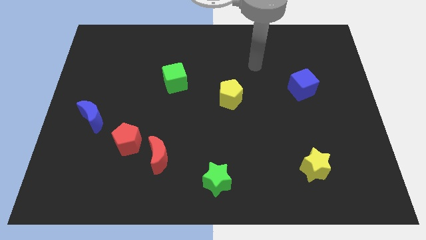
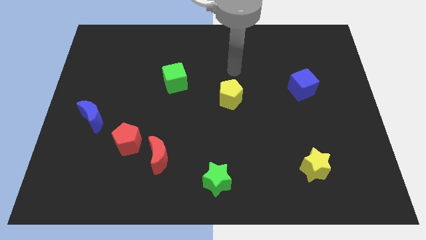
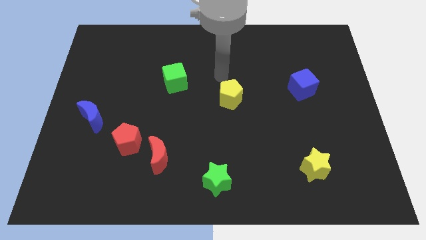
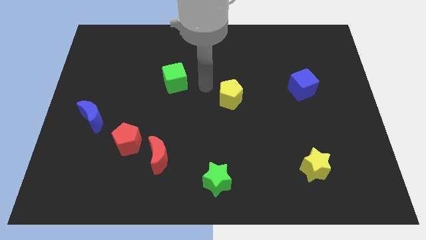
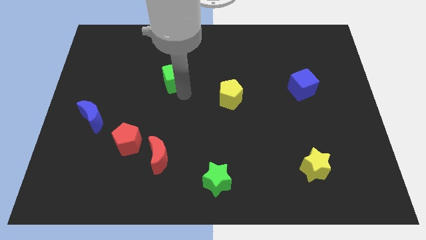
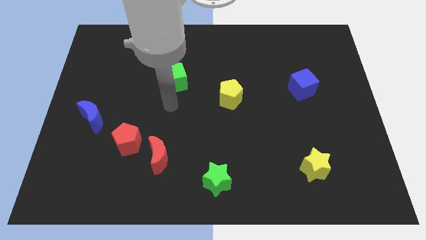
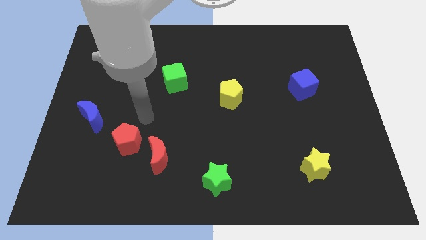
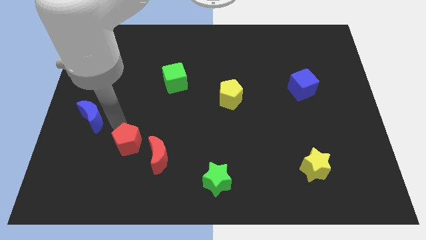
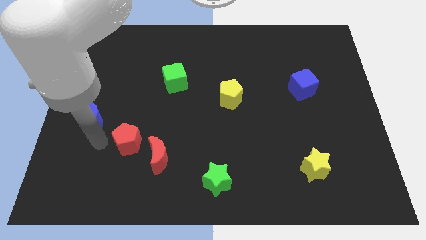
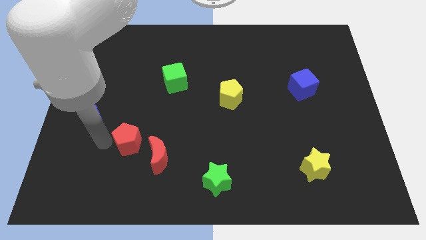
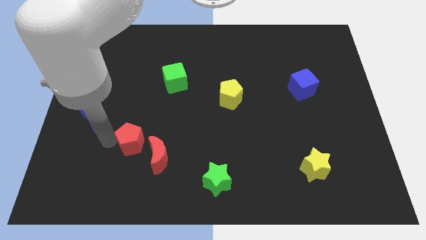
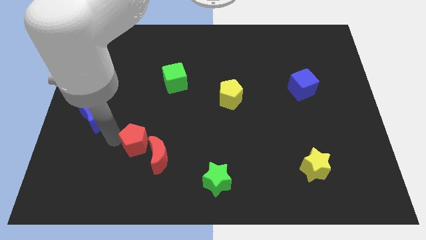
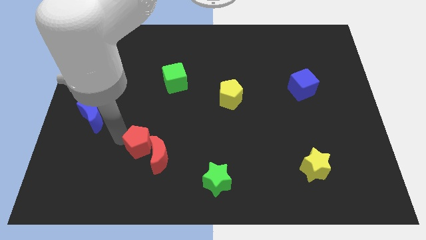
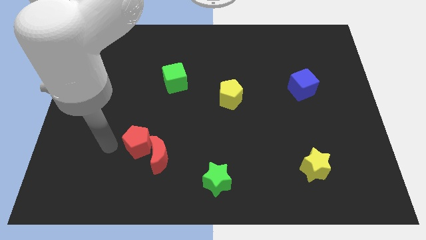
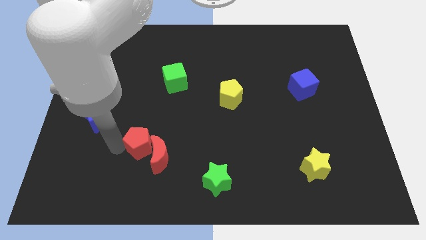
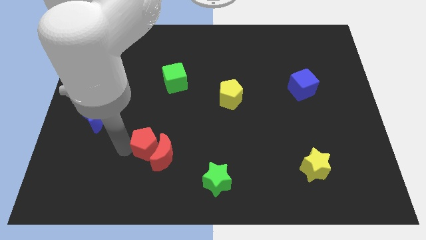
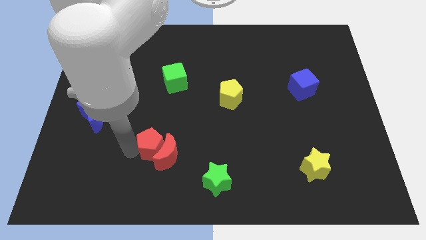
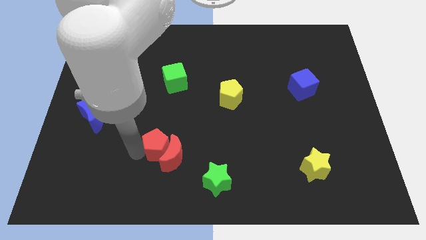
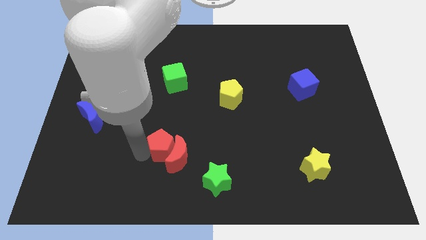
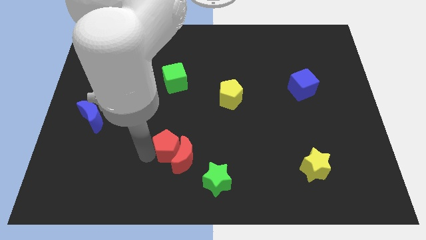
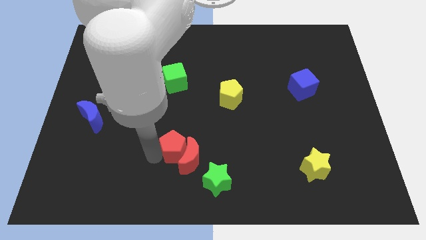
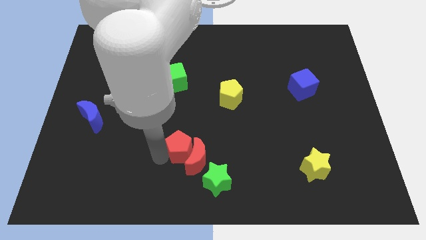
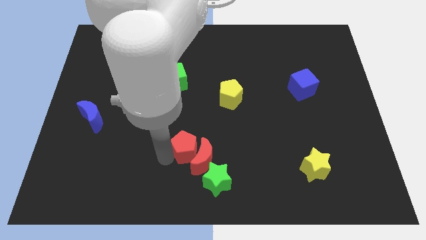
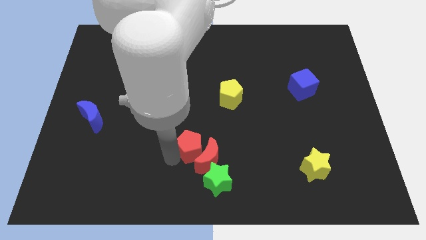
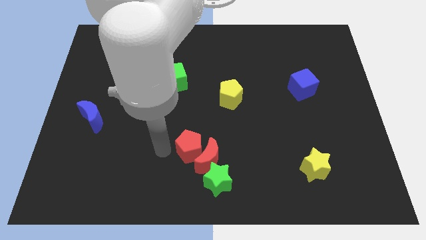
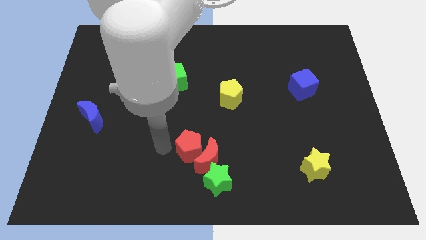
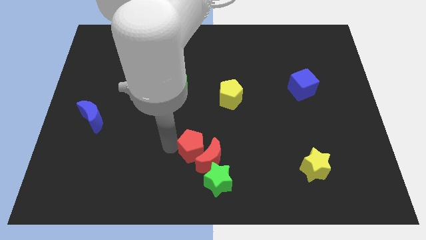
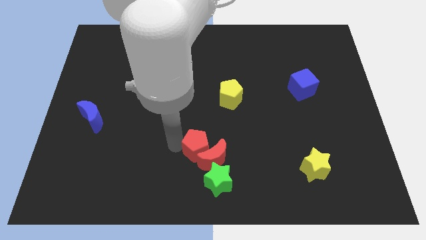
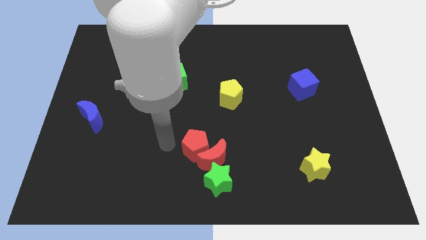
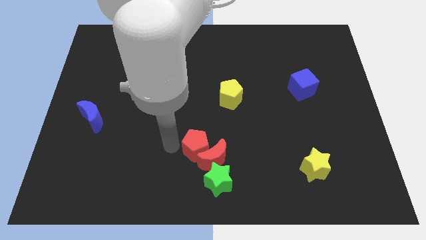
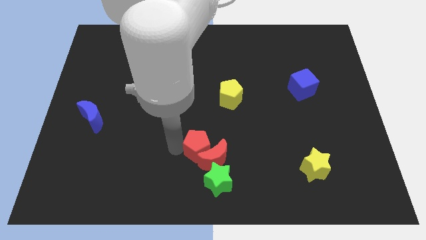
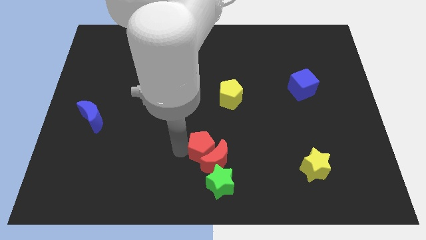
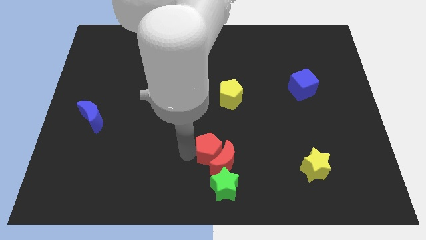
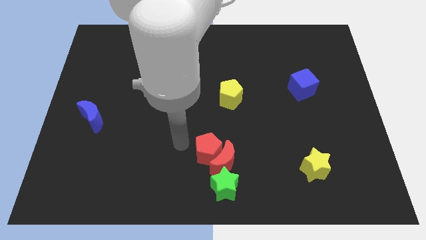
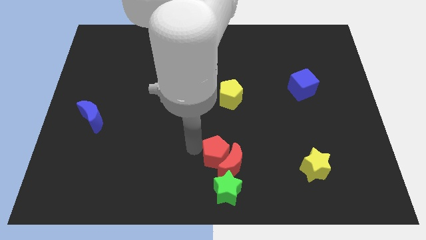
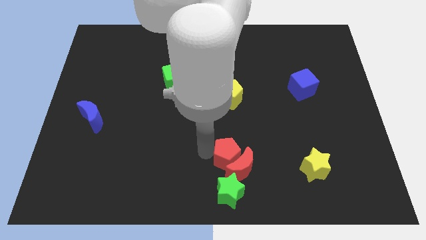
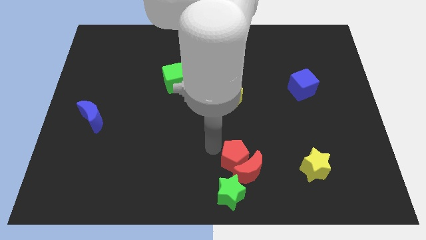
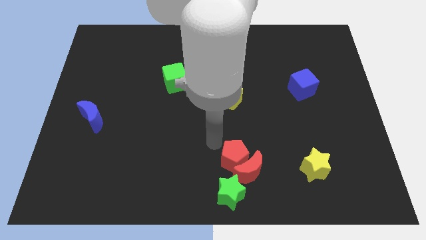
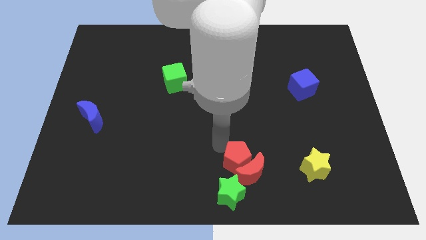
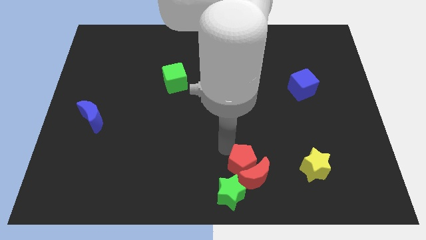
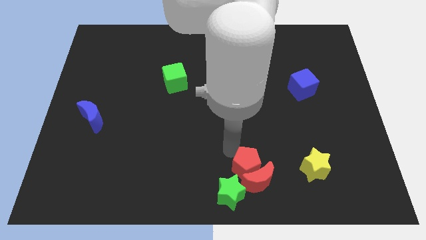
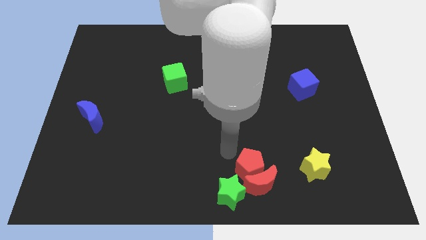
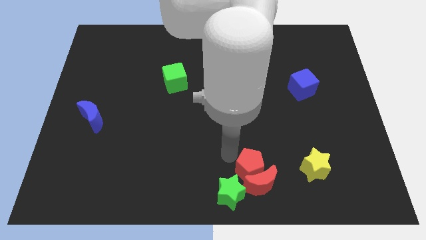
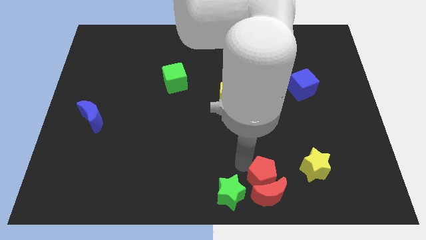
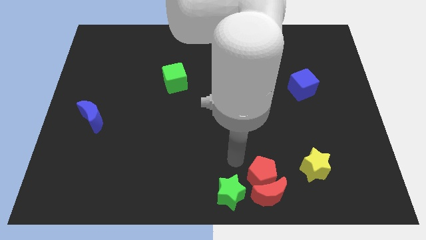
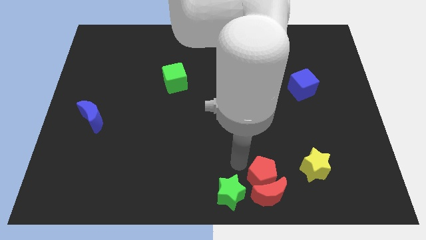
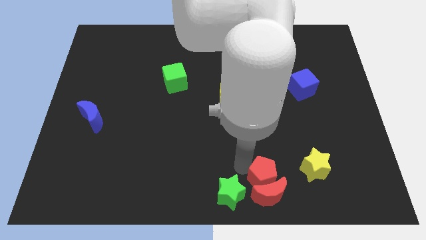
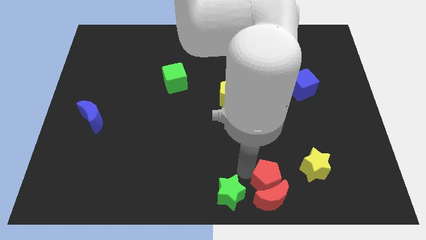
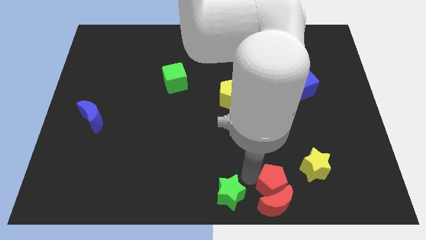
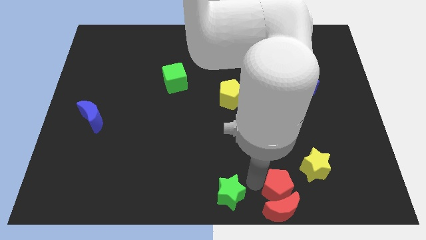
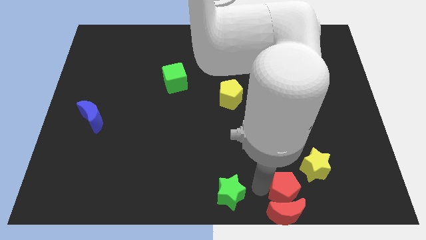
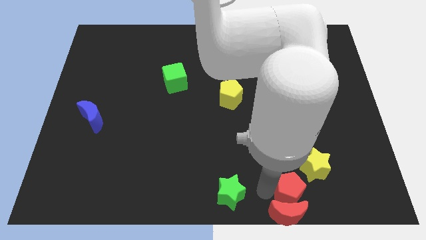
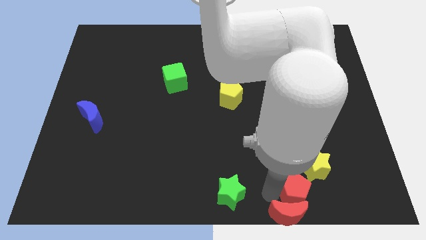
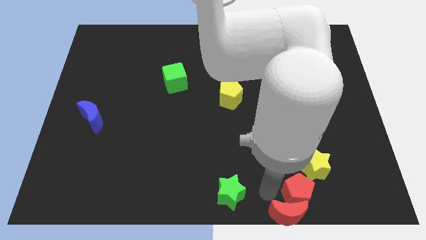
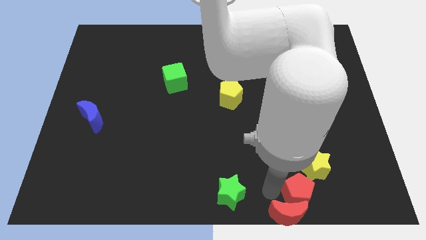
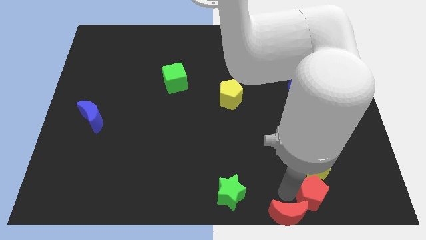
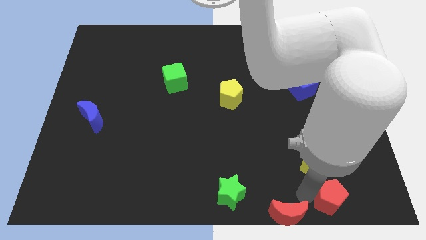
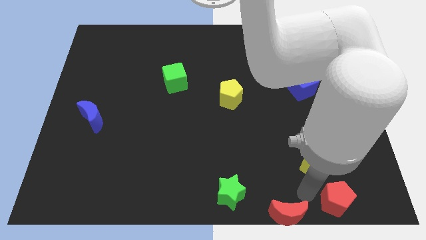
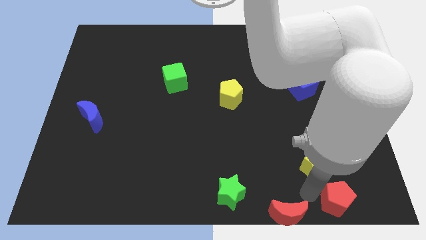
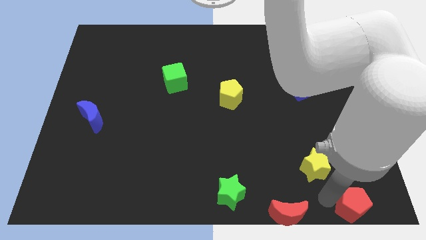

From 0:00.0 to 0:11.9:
put the red pentagon to the bottom right of the board

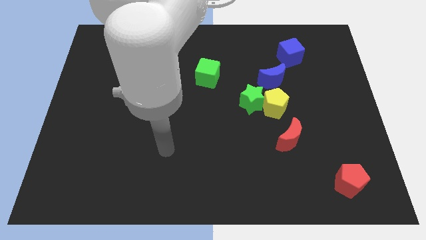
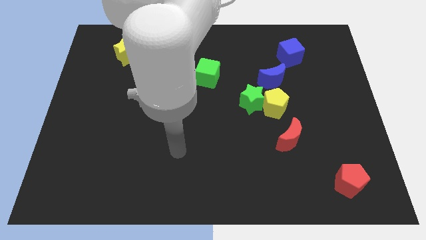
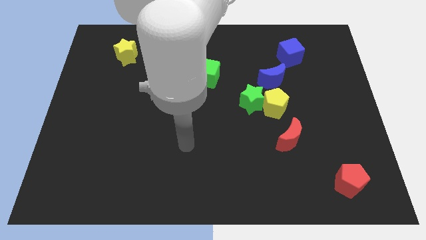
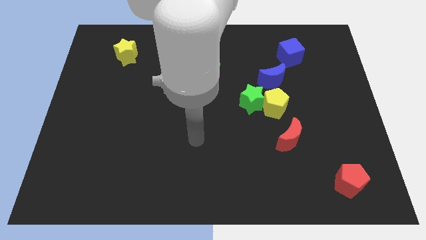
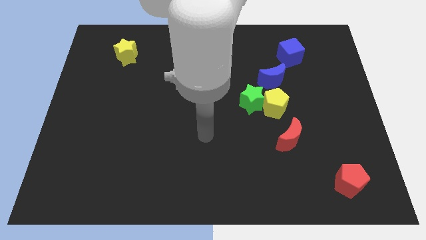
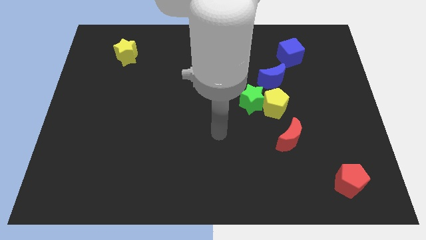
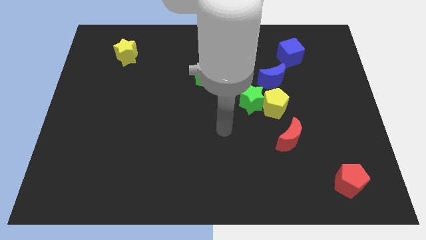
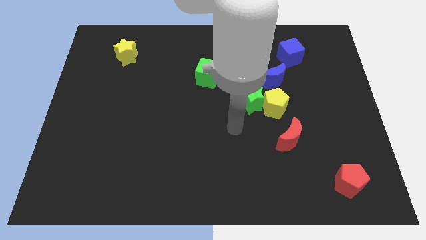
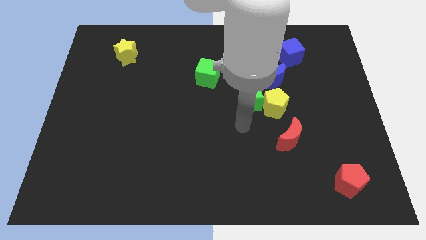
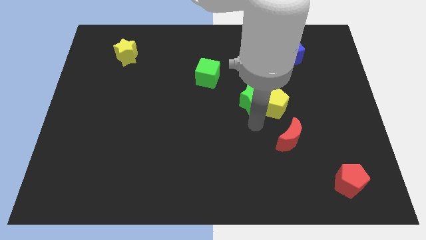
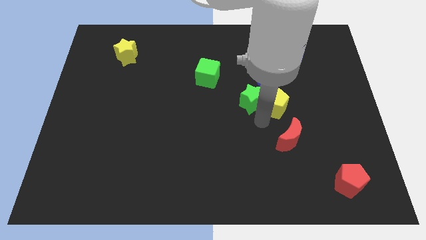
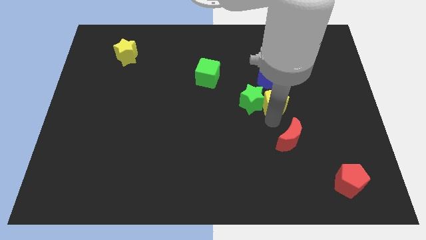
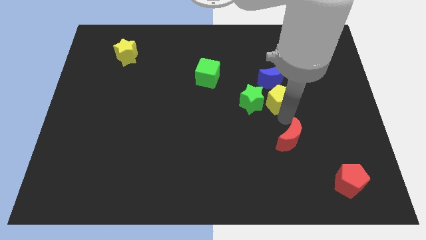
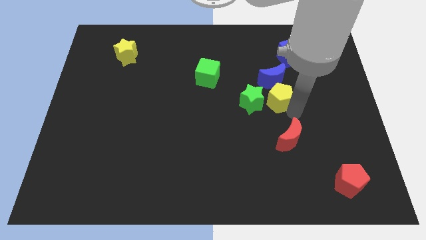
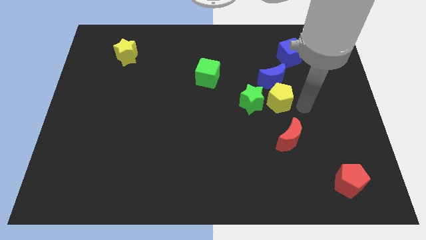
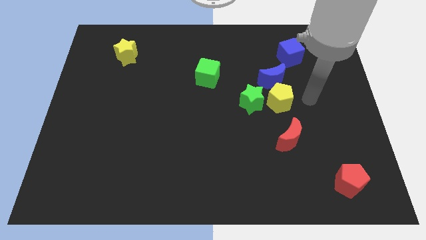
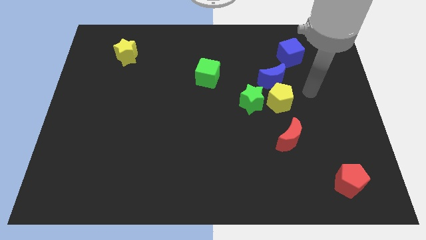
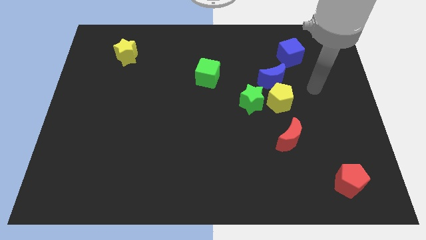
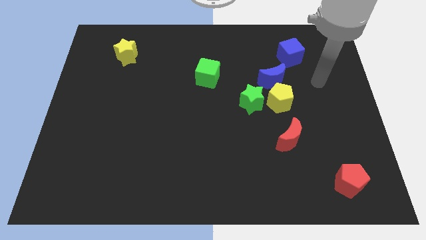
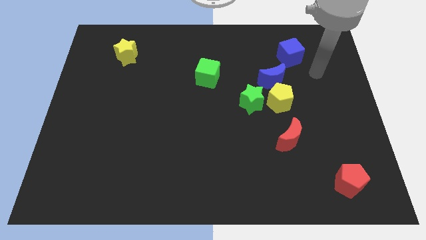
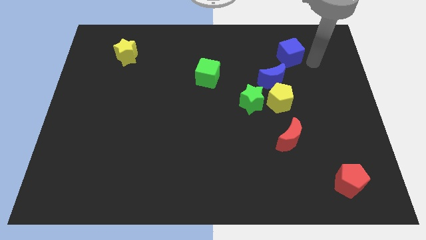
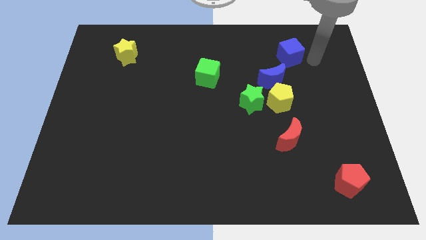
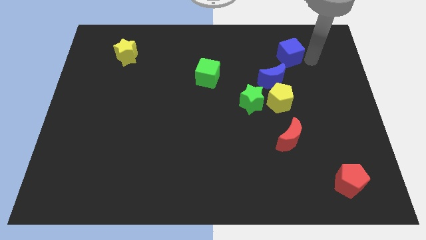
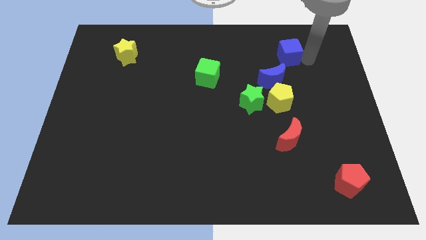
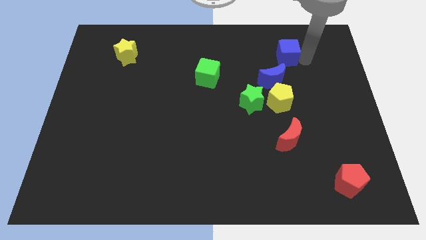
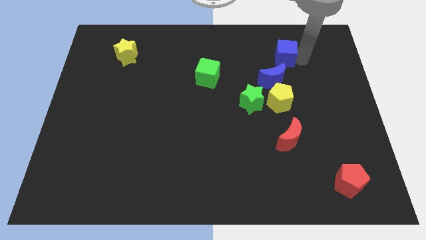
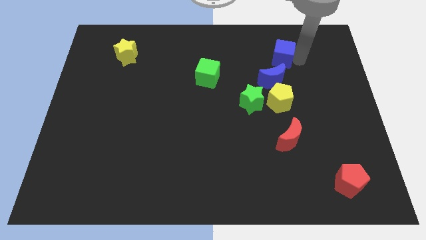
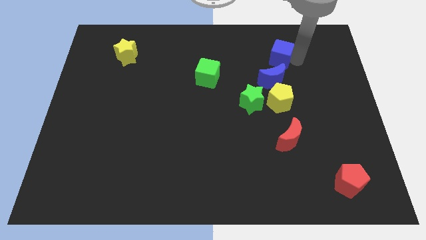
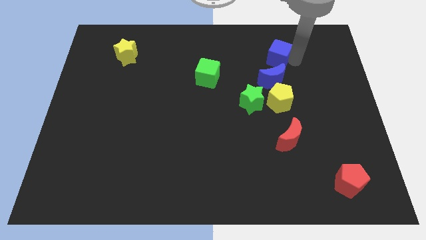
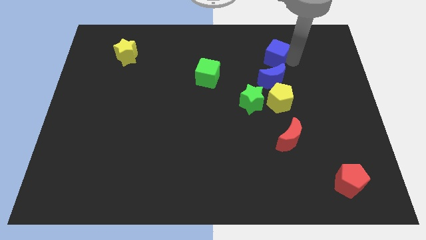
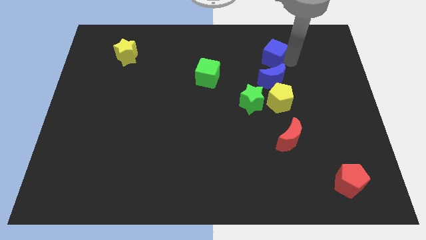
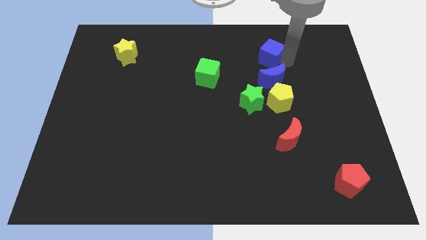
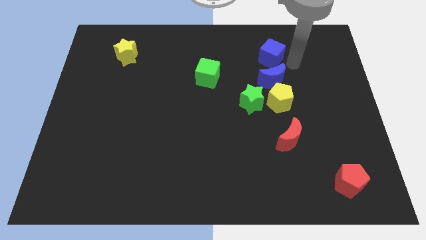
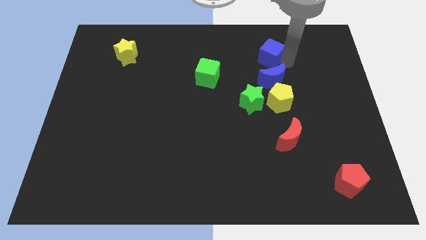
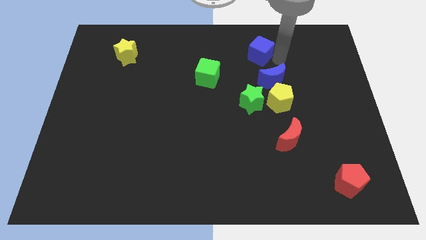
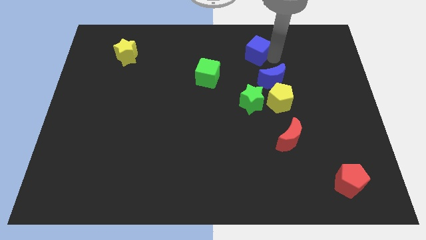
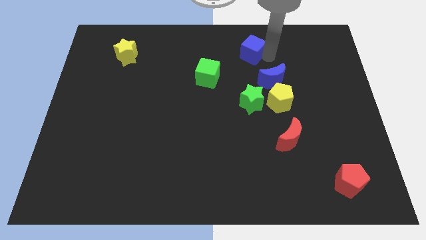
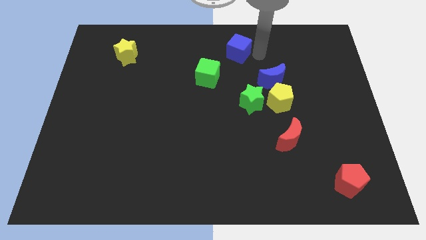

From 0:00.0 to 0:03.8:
put the blue cube to the top side
